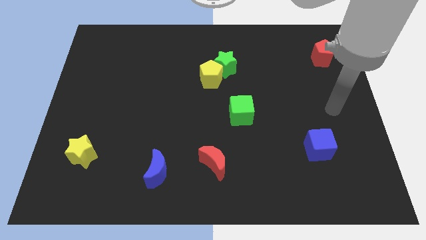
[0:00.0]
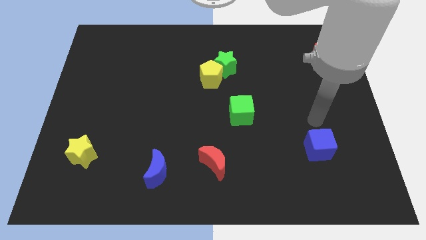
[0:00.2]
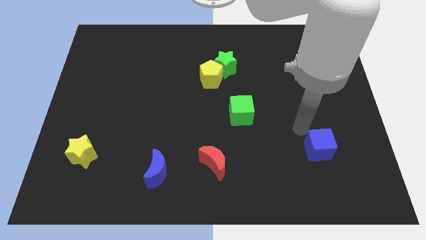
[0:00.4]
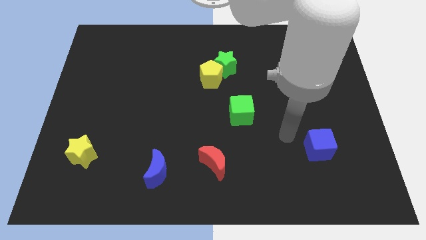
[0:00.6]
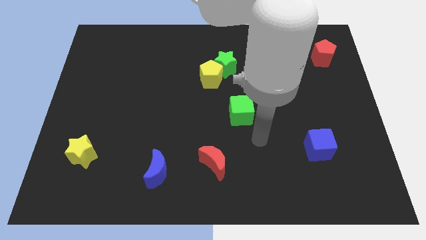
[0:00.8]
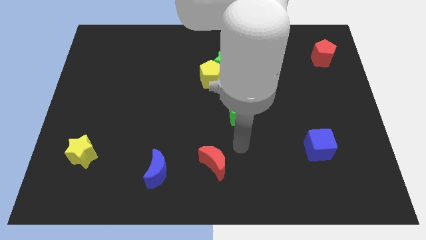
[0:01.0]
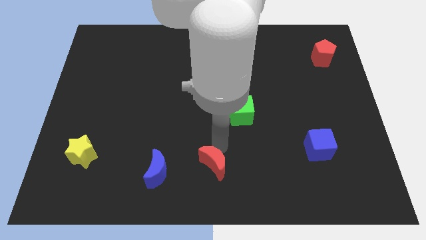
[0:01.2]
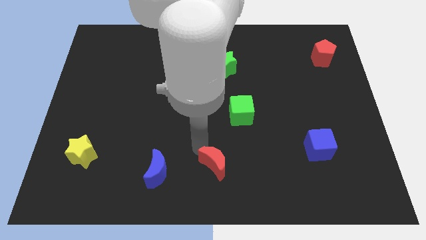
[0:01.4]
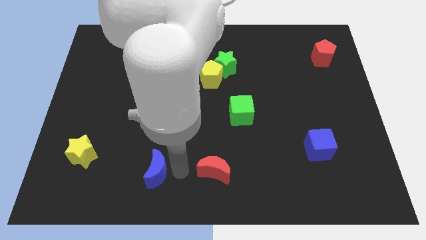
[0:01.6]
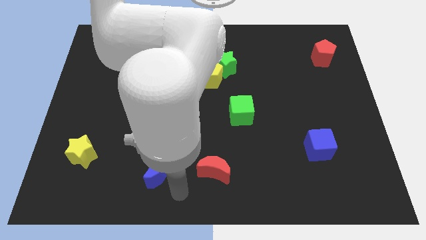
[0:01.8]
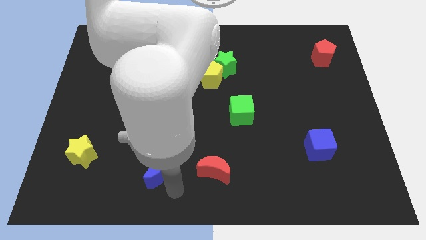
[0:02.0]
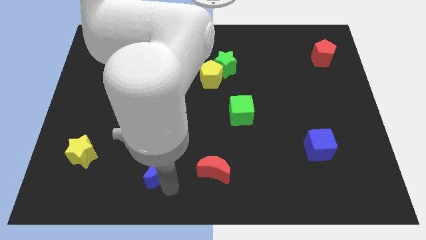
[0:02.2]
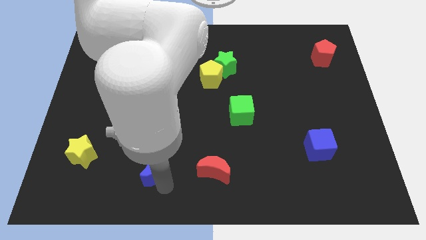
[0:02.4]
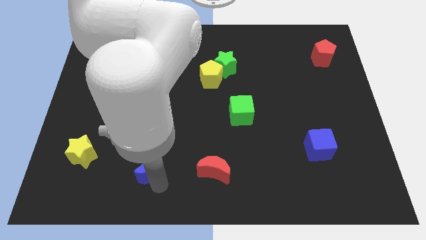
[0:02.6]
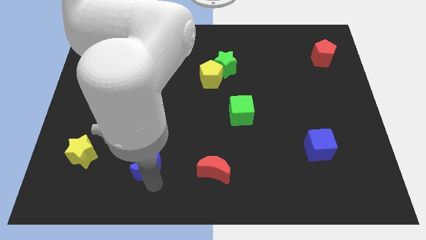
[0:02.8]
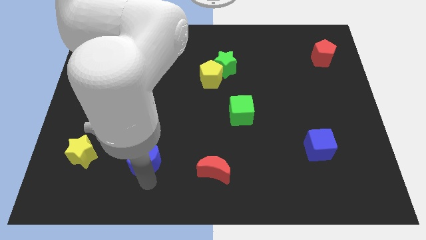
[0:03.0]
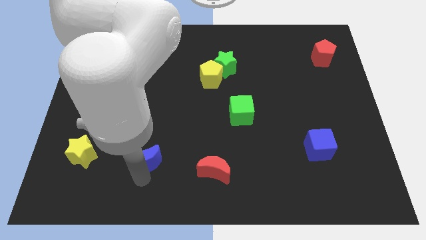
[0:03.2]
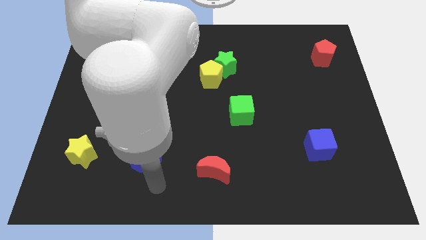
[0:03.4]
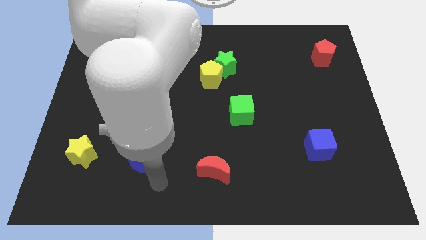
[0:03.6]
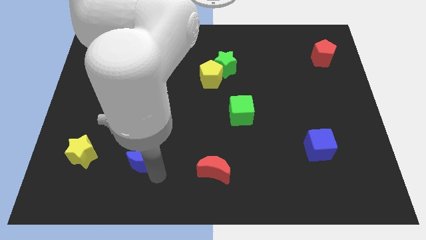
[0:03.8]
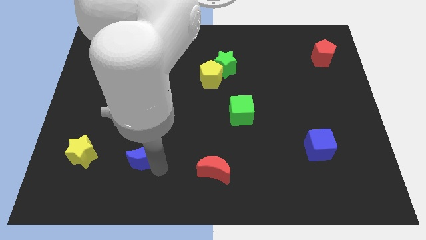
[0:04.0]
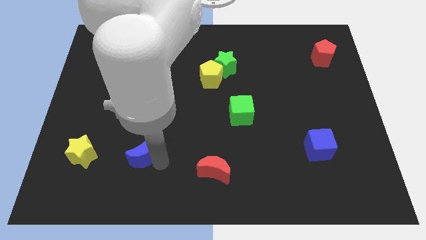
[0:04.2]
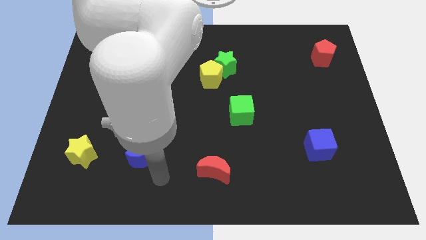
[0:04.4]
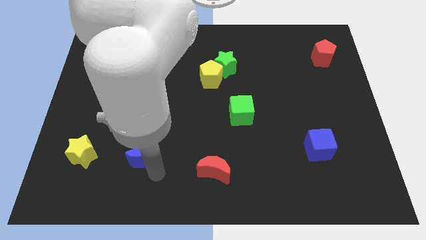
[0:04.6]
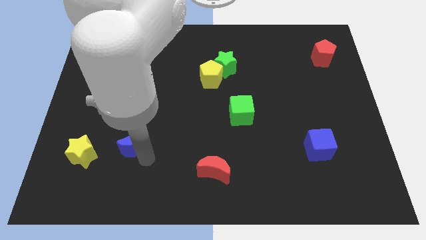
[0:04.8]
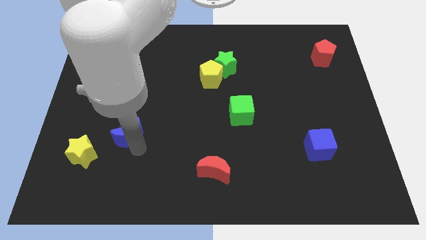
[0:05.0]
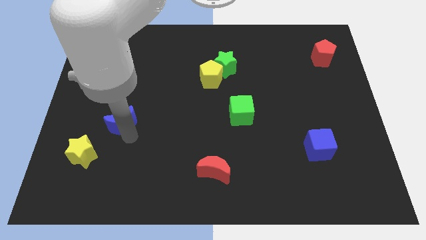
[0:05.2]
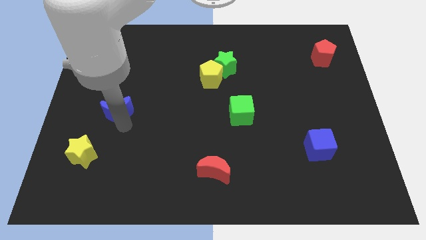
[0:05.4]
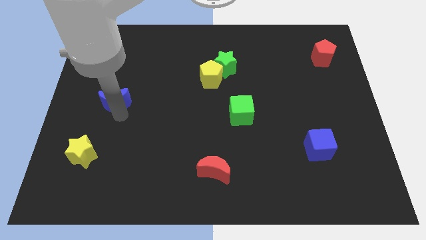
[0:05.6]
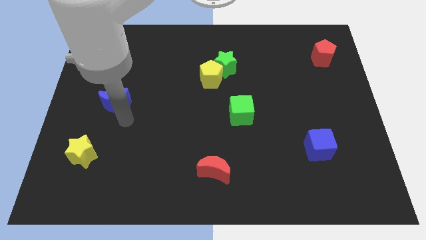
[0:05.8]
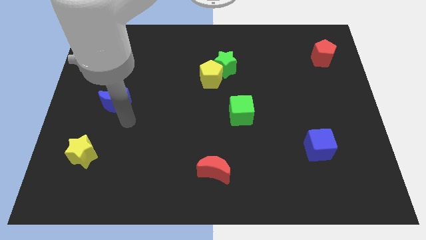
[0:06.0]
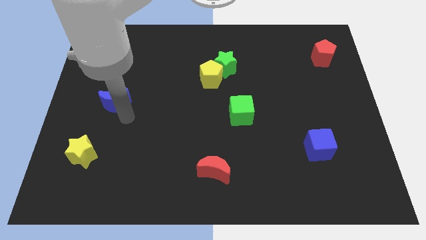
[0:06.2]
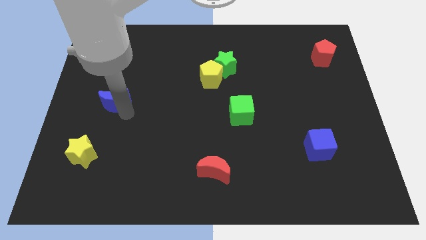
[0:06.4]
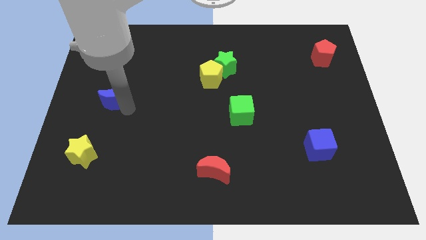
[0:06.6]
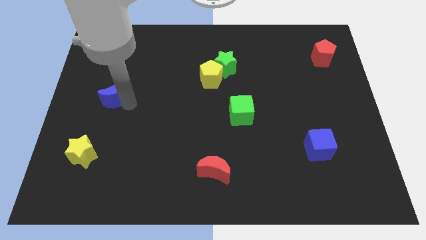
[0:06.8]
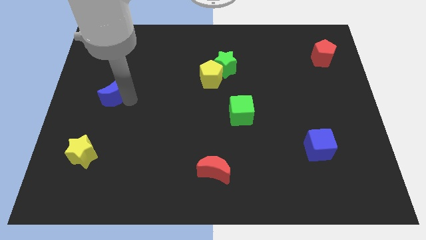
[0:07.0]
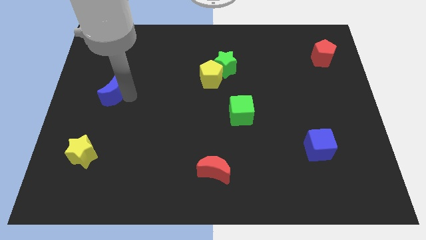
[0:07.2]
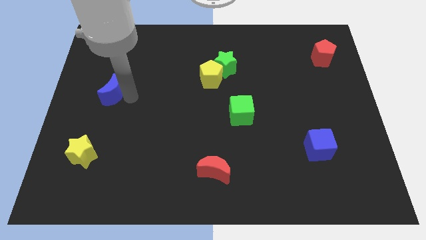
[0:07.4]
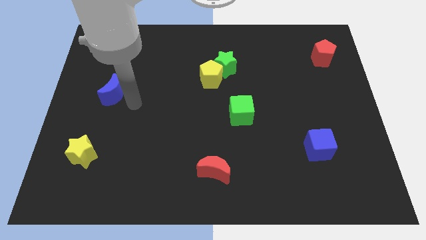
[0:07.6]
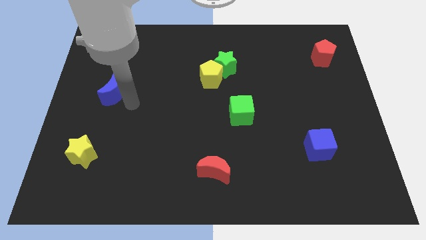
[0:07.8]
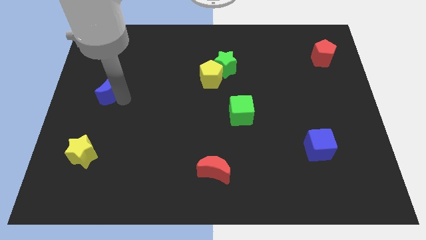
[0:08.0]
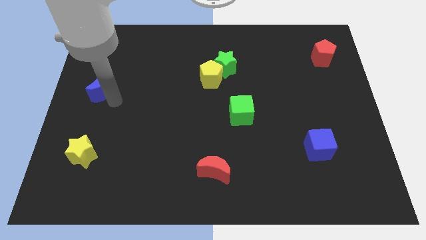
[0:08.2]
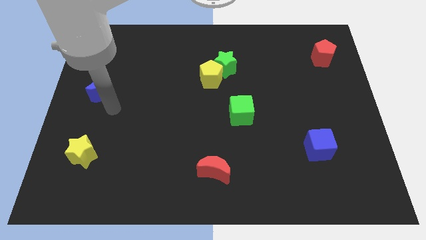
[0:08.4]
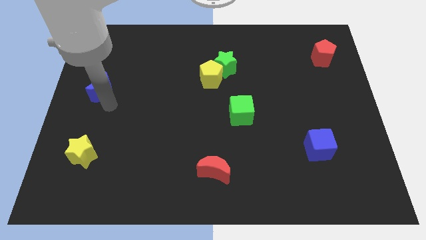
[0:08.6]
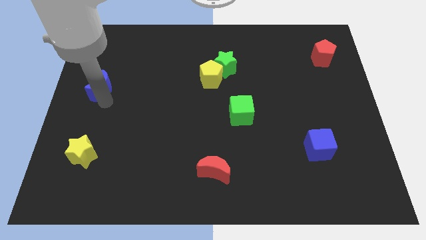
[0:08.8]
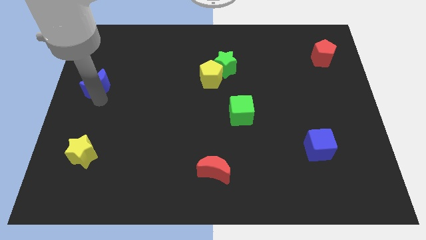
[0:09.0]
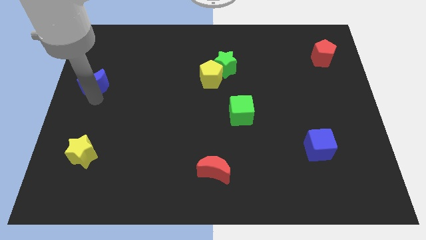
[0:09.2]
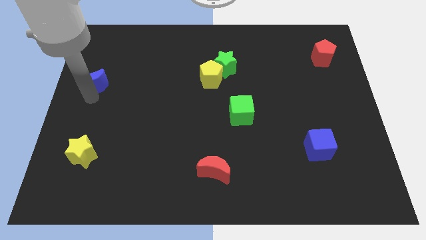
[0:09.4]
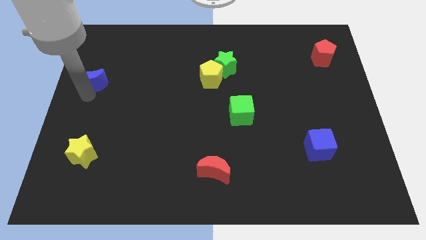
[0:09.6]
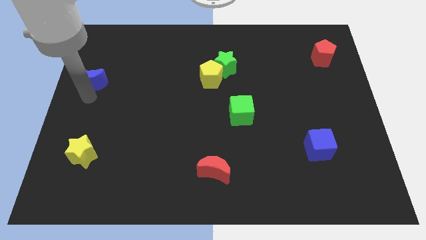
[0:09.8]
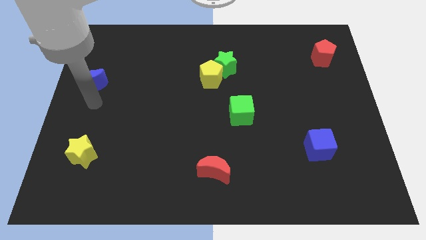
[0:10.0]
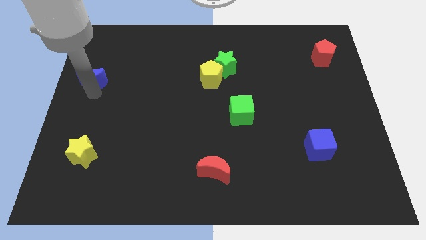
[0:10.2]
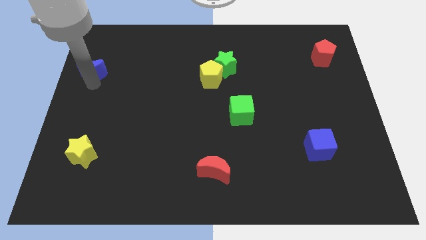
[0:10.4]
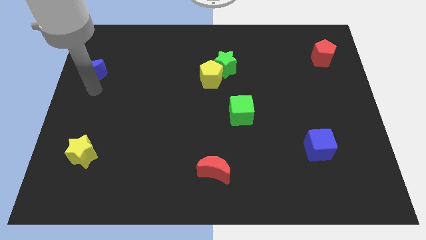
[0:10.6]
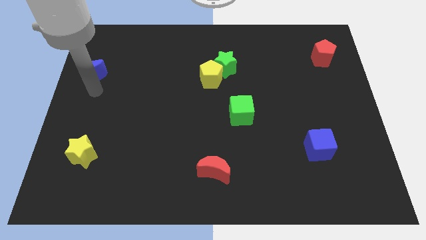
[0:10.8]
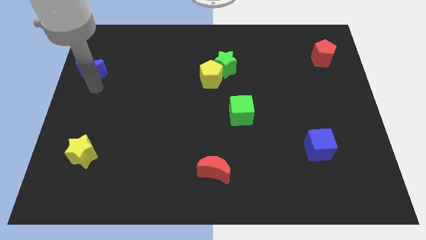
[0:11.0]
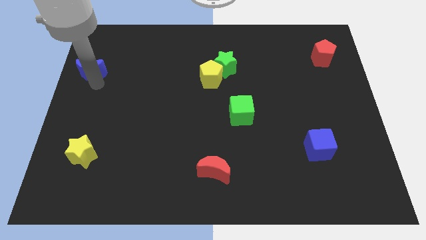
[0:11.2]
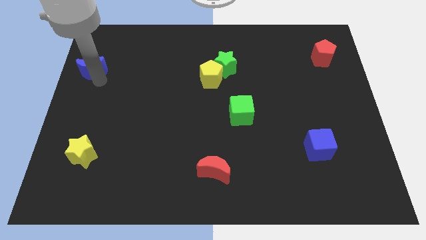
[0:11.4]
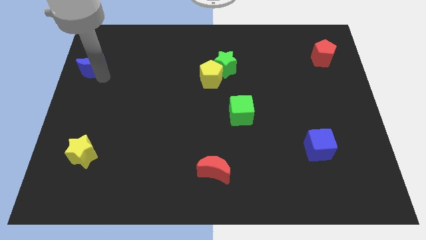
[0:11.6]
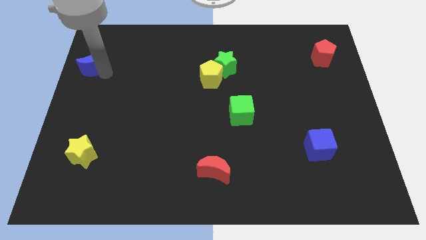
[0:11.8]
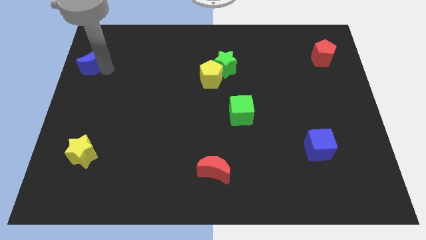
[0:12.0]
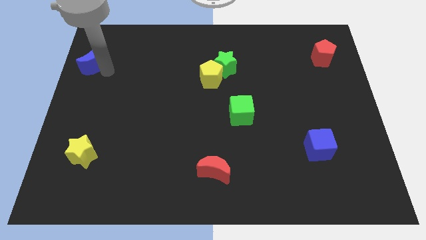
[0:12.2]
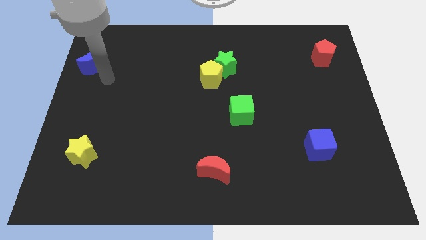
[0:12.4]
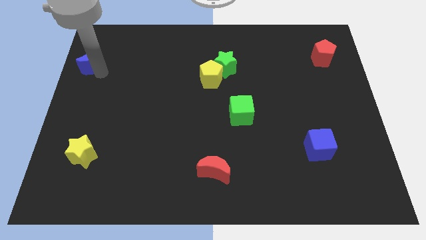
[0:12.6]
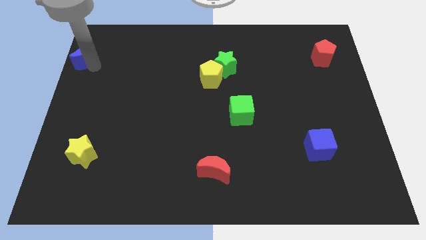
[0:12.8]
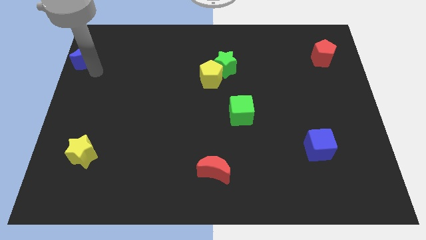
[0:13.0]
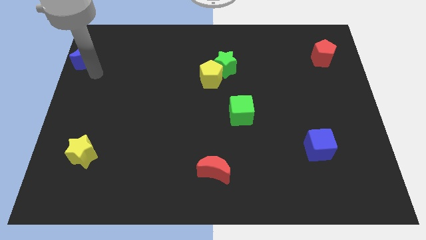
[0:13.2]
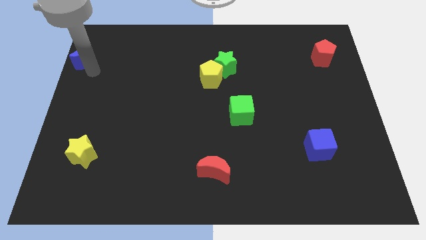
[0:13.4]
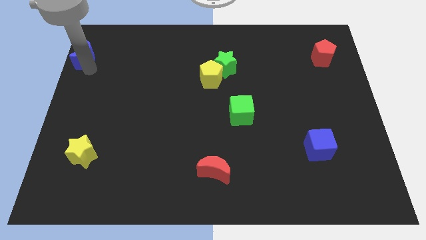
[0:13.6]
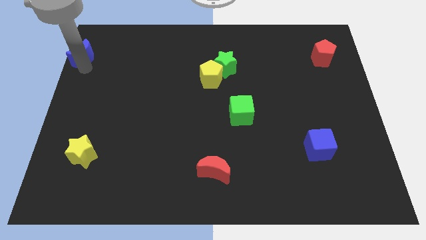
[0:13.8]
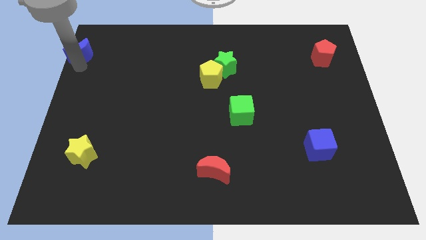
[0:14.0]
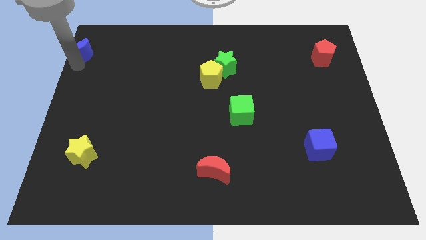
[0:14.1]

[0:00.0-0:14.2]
put the blue moon to the upper left corner
